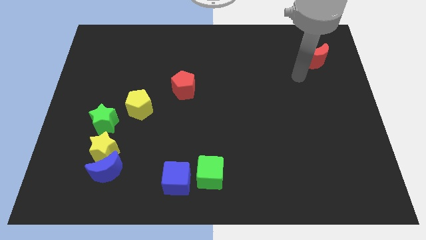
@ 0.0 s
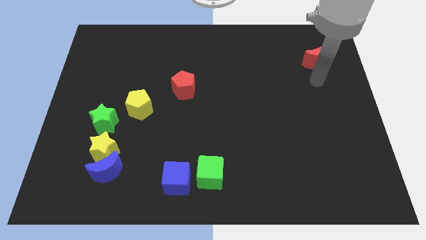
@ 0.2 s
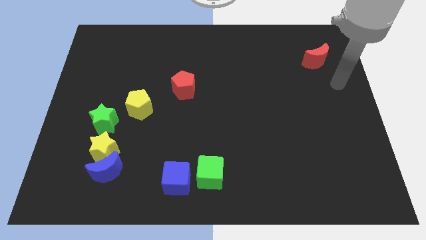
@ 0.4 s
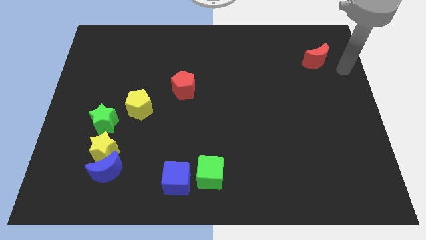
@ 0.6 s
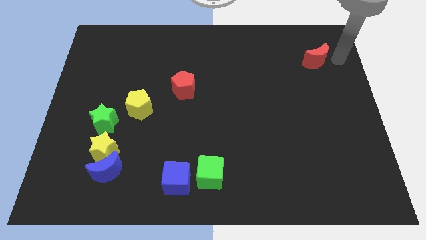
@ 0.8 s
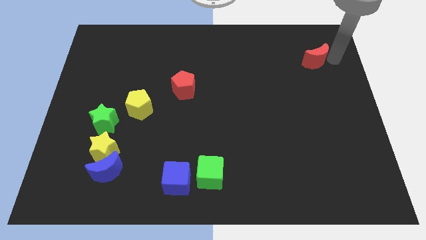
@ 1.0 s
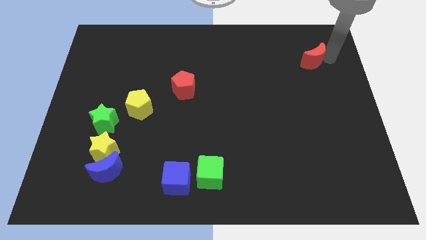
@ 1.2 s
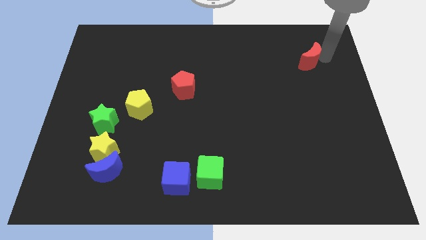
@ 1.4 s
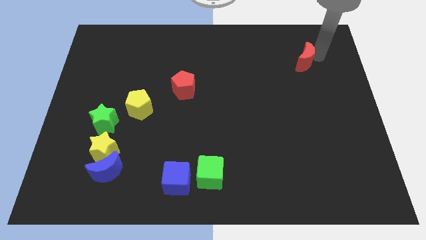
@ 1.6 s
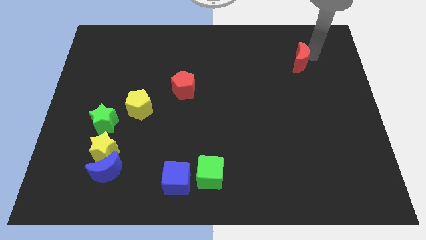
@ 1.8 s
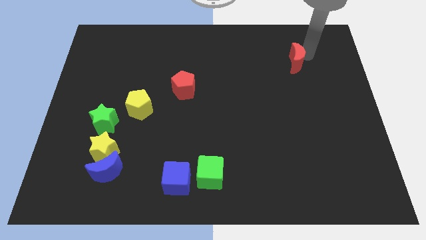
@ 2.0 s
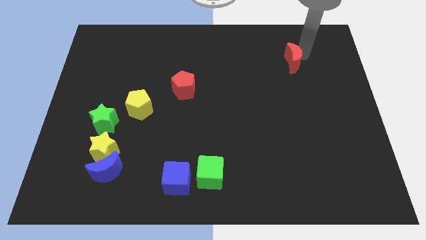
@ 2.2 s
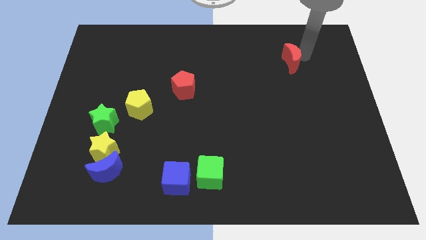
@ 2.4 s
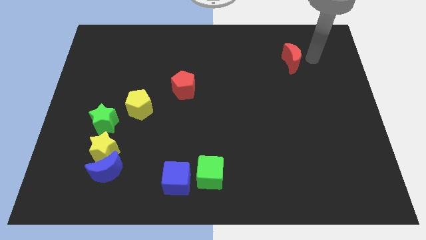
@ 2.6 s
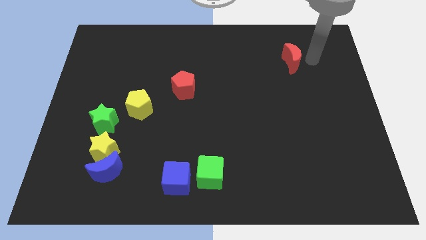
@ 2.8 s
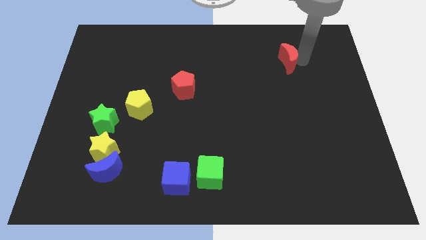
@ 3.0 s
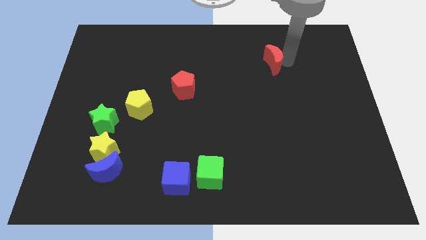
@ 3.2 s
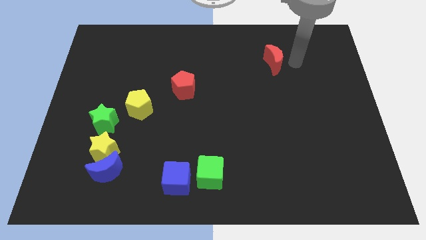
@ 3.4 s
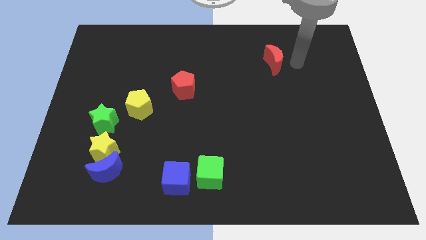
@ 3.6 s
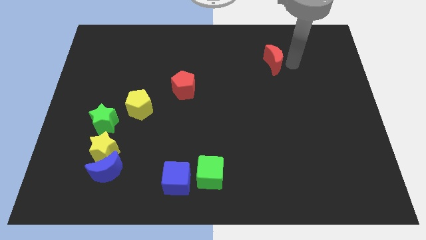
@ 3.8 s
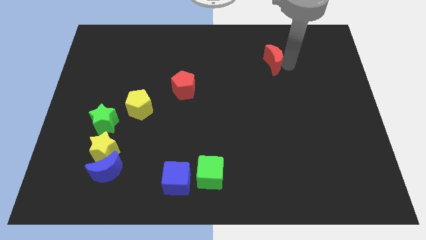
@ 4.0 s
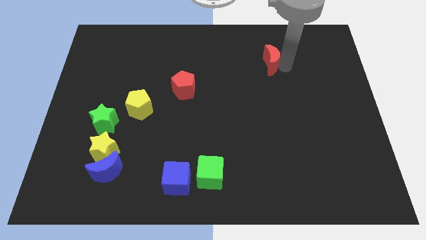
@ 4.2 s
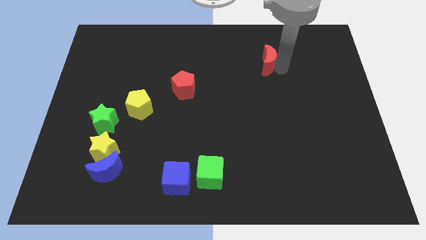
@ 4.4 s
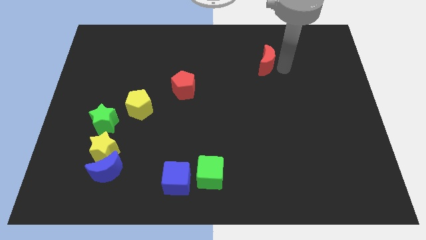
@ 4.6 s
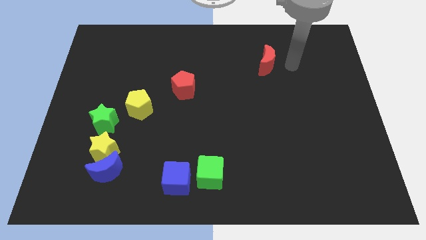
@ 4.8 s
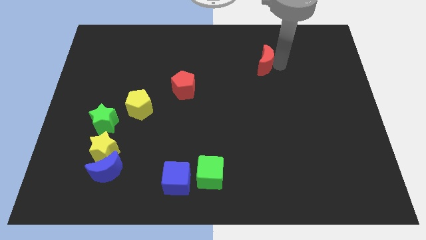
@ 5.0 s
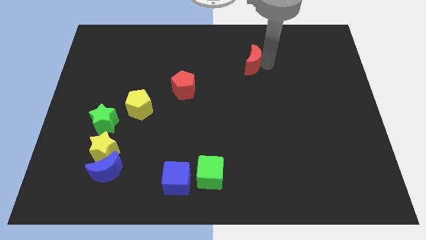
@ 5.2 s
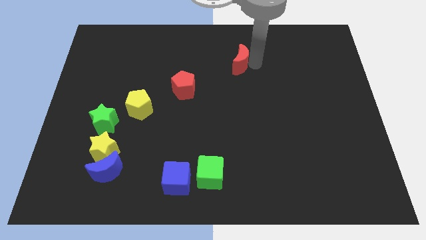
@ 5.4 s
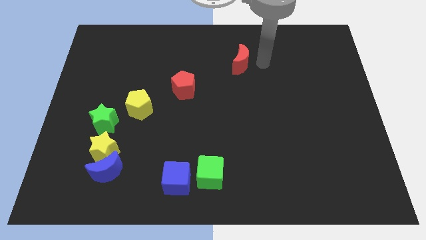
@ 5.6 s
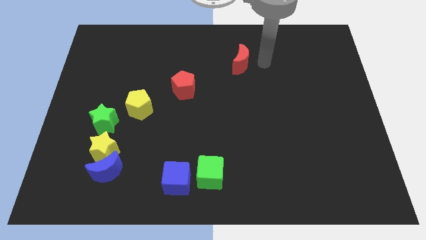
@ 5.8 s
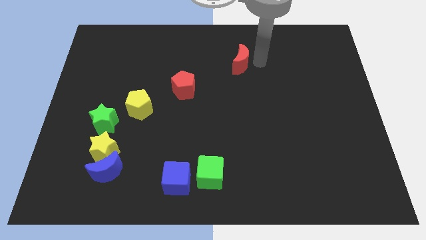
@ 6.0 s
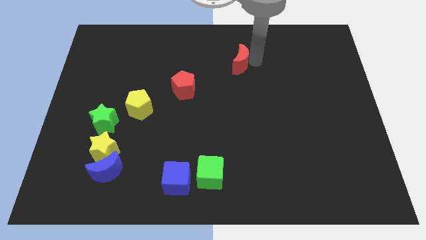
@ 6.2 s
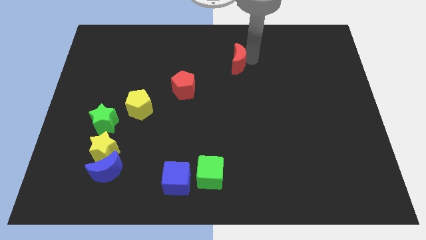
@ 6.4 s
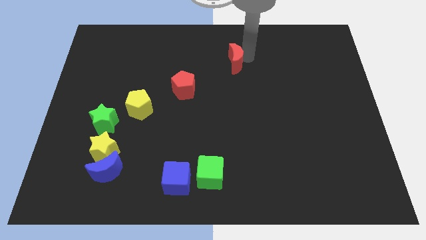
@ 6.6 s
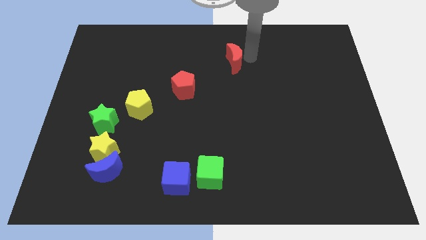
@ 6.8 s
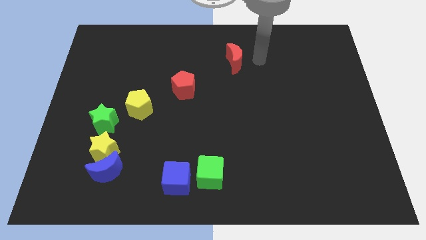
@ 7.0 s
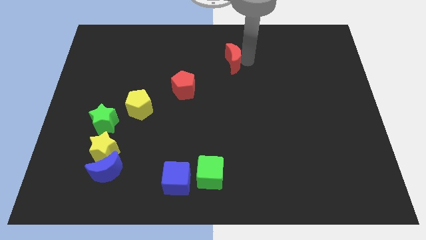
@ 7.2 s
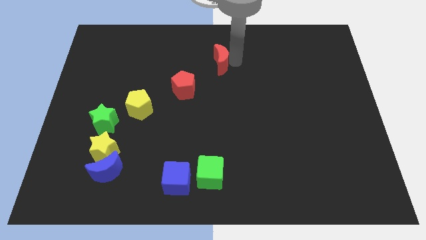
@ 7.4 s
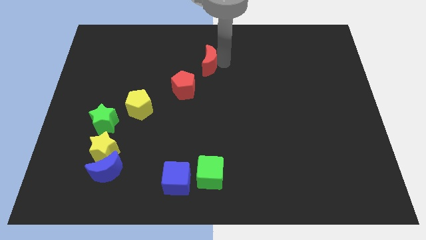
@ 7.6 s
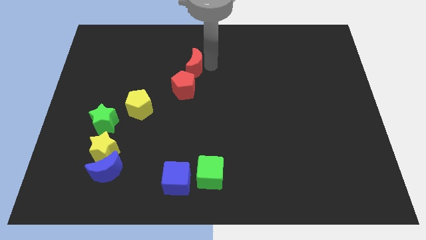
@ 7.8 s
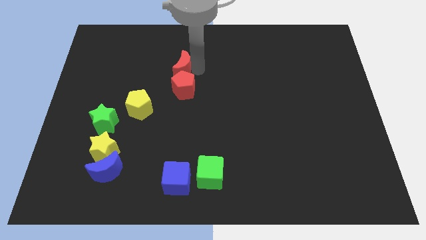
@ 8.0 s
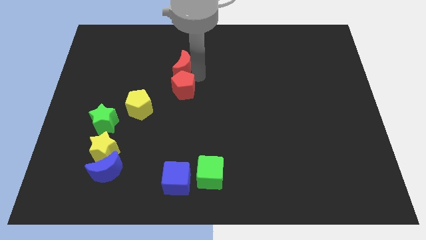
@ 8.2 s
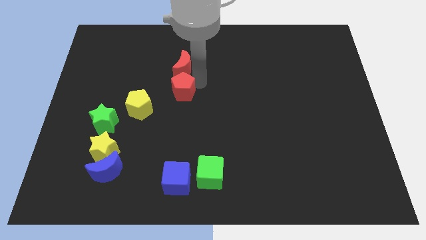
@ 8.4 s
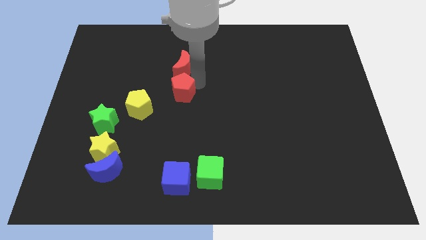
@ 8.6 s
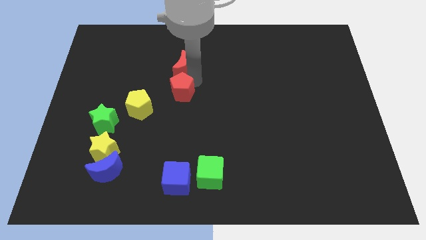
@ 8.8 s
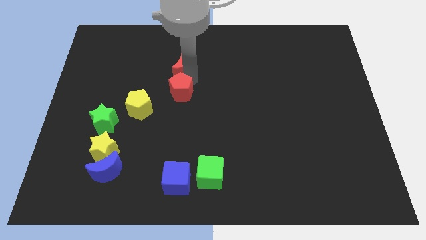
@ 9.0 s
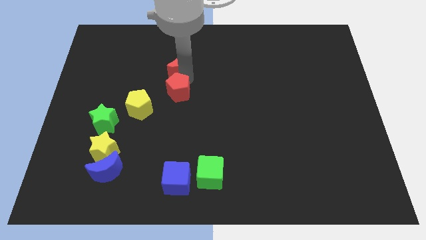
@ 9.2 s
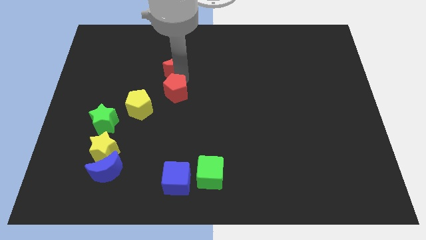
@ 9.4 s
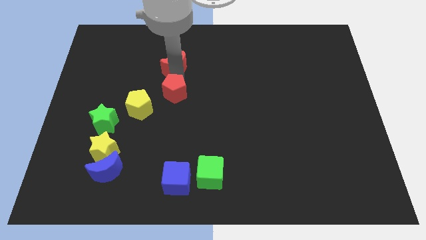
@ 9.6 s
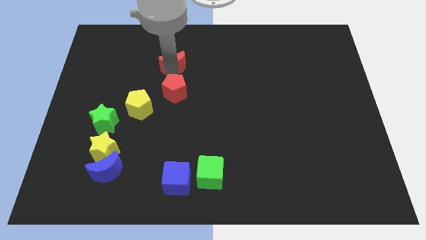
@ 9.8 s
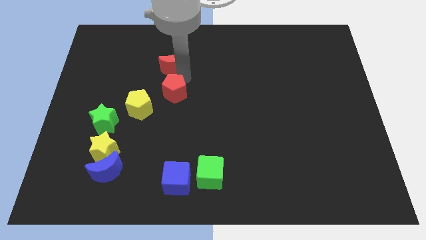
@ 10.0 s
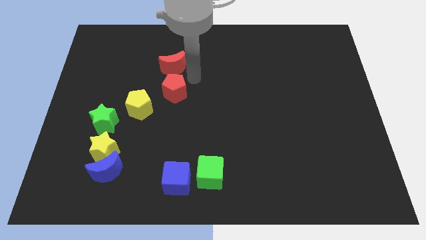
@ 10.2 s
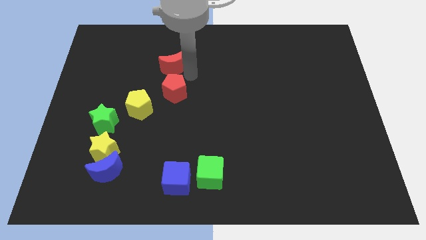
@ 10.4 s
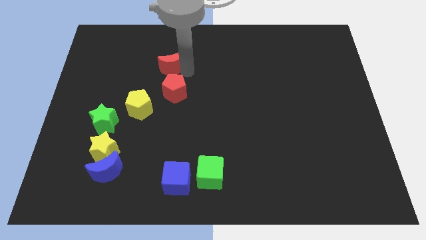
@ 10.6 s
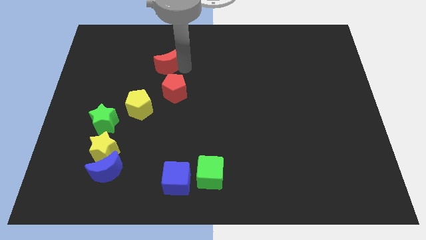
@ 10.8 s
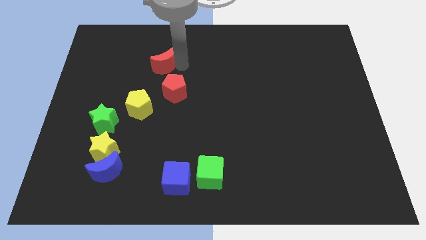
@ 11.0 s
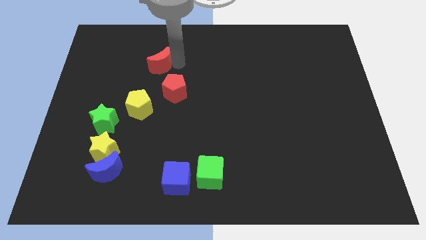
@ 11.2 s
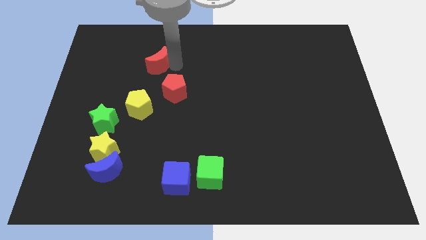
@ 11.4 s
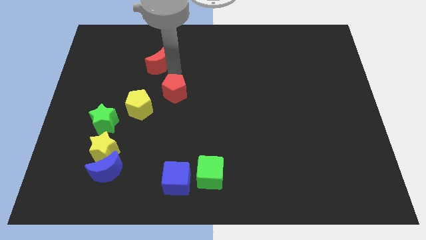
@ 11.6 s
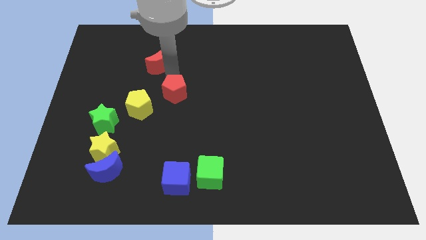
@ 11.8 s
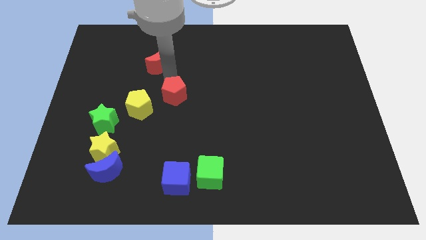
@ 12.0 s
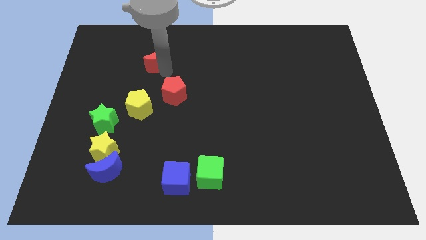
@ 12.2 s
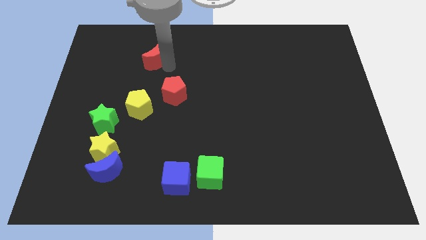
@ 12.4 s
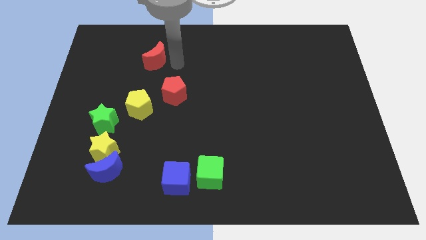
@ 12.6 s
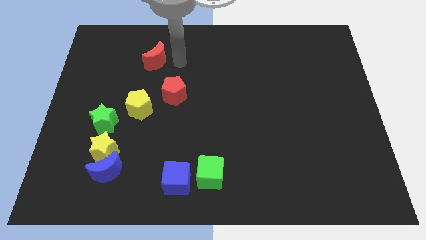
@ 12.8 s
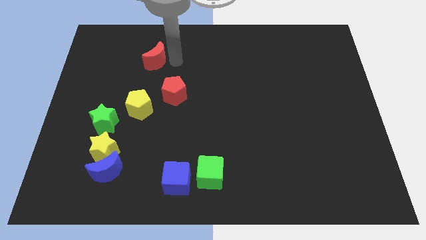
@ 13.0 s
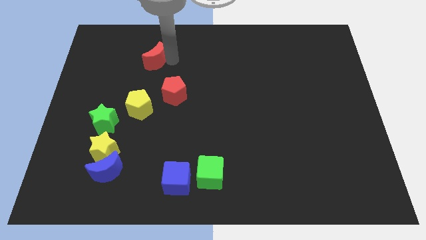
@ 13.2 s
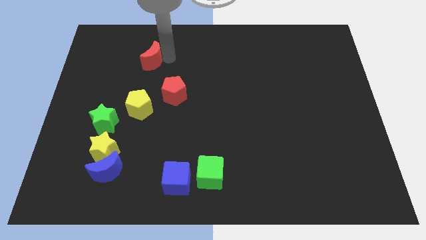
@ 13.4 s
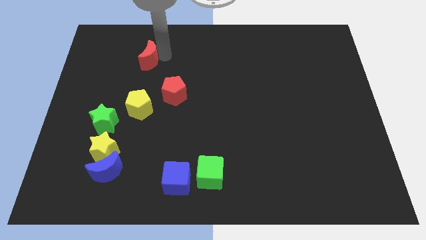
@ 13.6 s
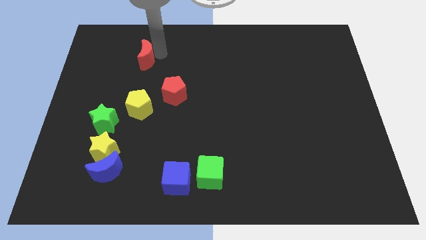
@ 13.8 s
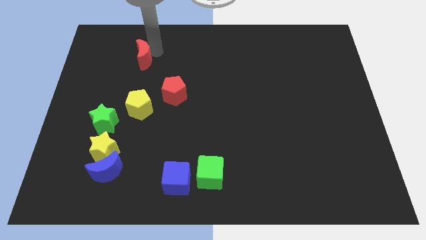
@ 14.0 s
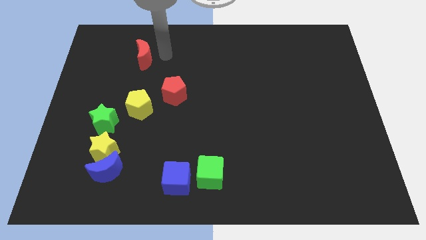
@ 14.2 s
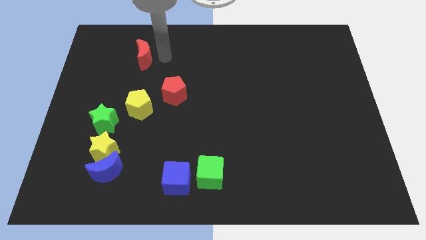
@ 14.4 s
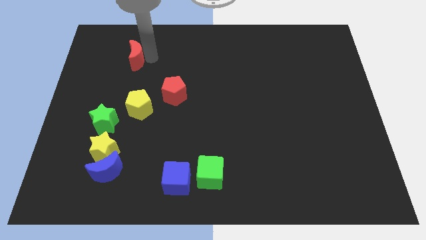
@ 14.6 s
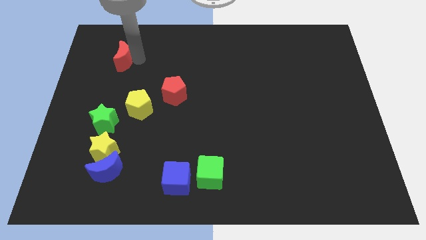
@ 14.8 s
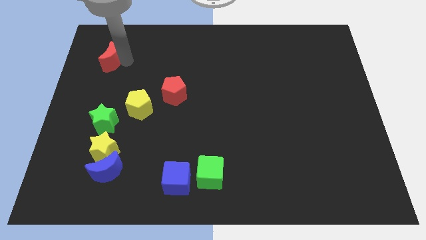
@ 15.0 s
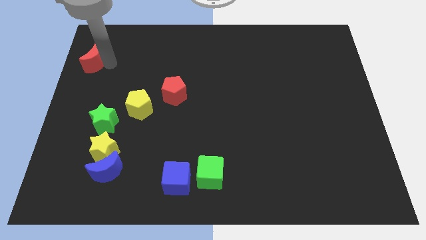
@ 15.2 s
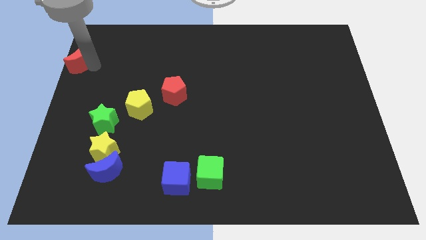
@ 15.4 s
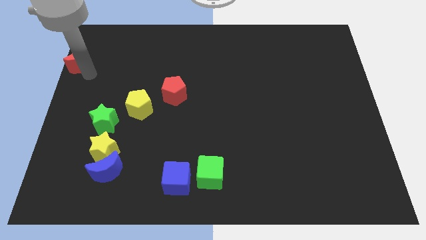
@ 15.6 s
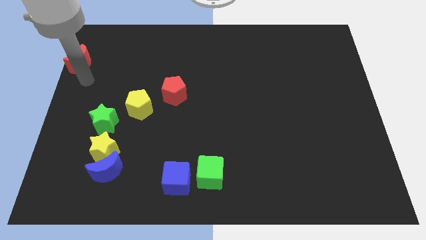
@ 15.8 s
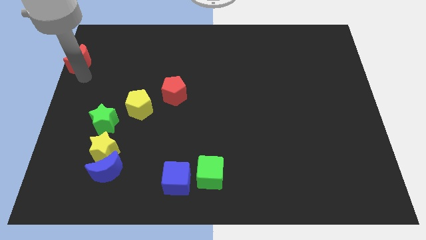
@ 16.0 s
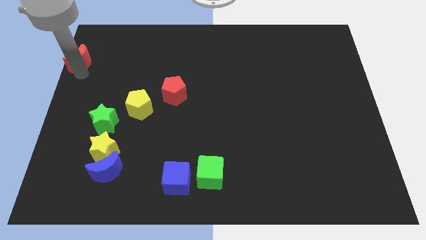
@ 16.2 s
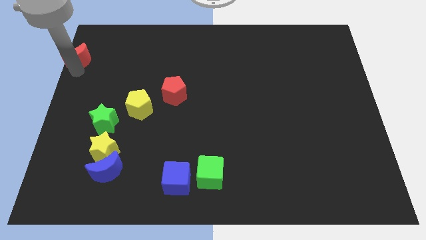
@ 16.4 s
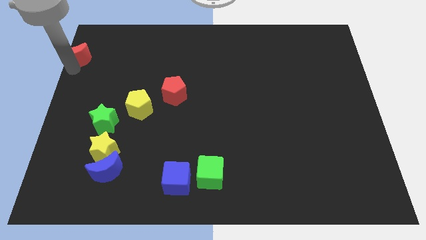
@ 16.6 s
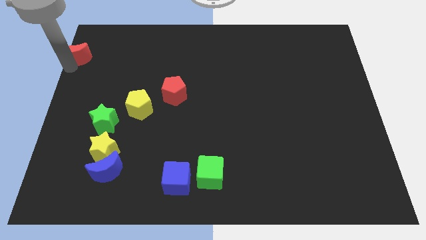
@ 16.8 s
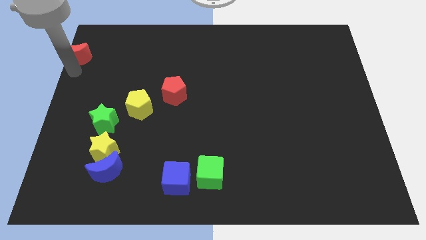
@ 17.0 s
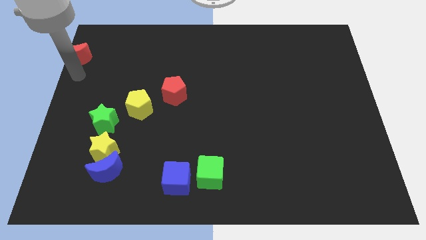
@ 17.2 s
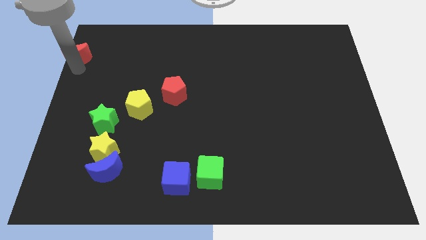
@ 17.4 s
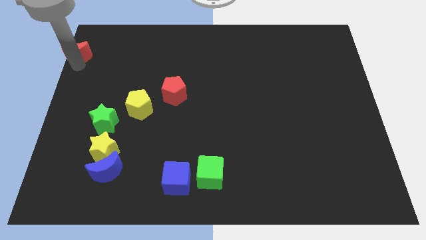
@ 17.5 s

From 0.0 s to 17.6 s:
push the red moon to the top left

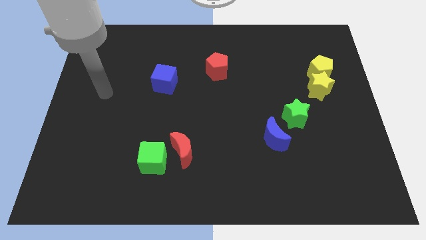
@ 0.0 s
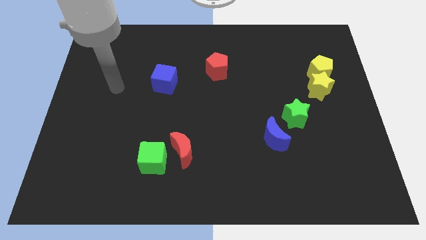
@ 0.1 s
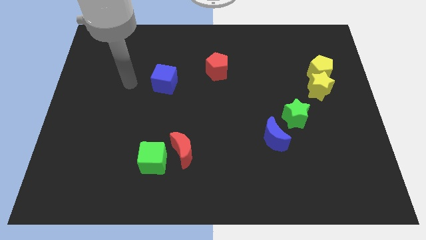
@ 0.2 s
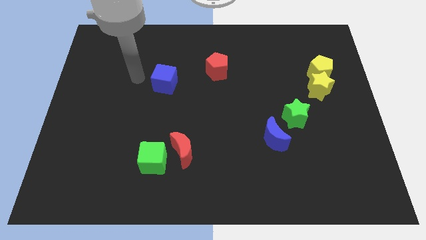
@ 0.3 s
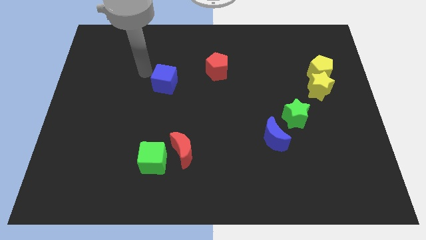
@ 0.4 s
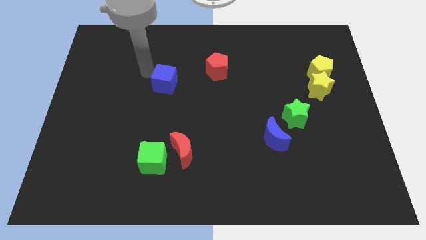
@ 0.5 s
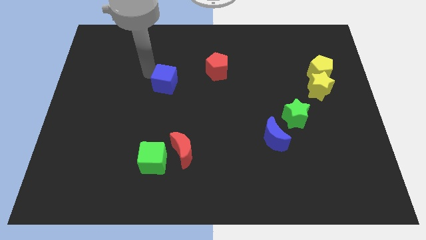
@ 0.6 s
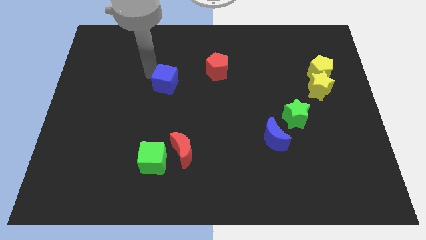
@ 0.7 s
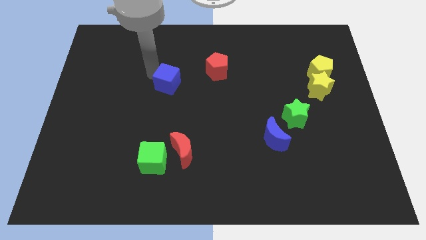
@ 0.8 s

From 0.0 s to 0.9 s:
put the blue cube to the middle of the board
